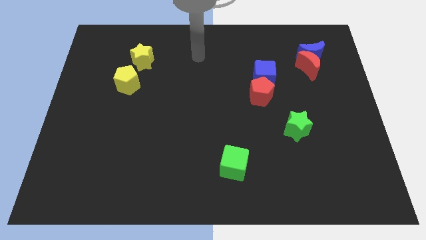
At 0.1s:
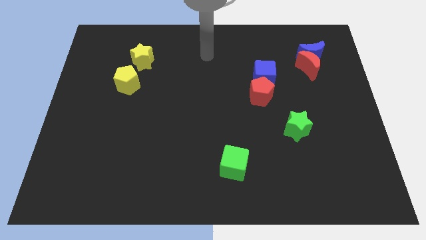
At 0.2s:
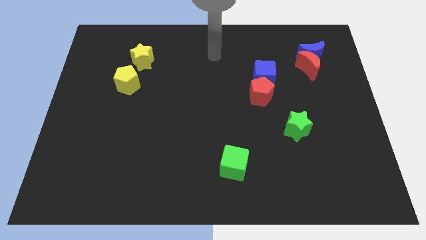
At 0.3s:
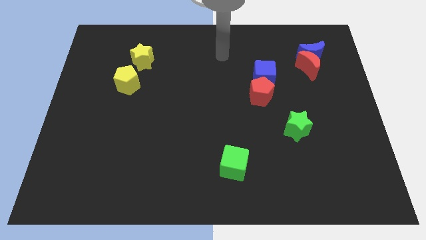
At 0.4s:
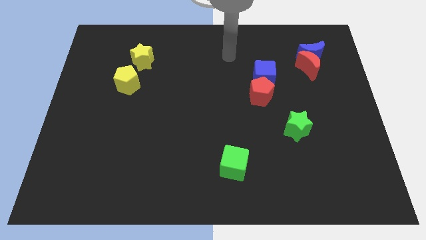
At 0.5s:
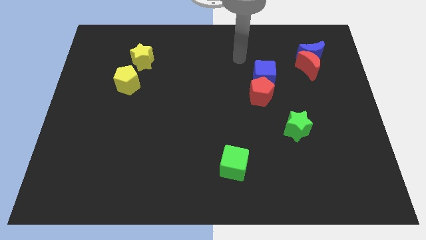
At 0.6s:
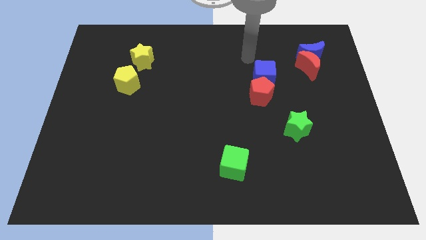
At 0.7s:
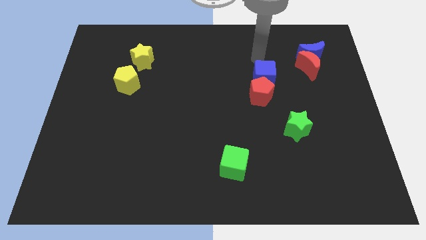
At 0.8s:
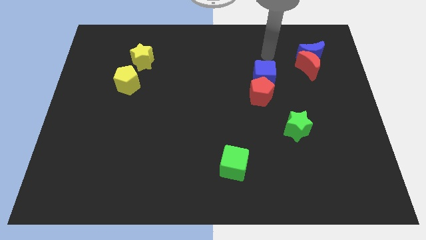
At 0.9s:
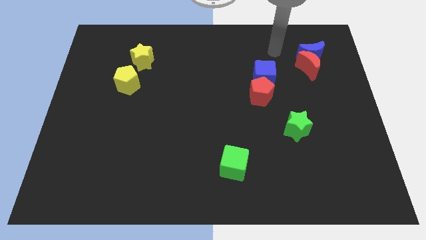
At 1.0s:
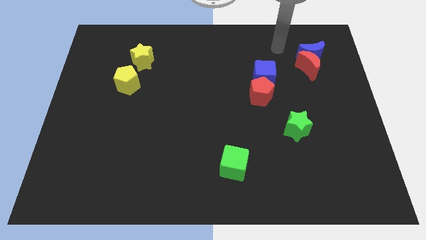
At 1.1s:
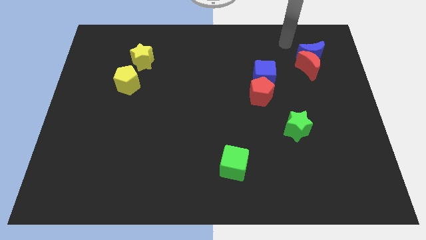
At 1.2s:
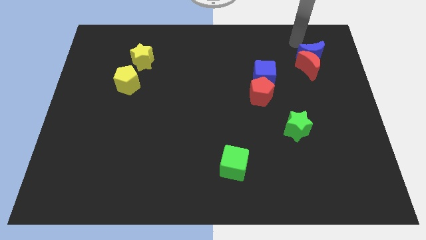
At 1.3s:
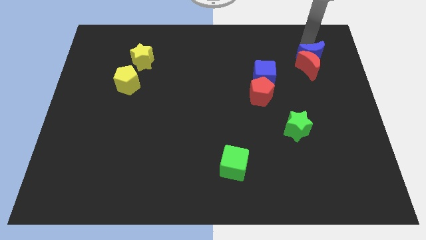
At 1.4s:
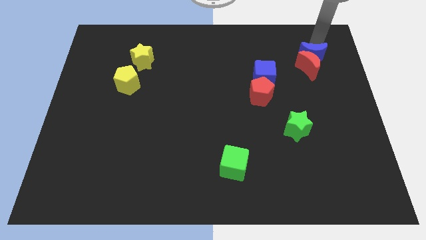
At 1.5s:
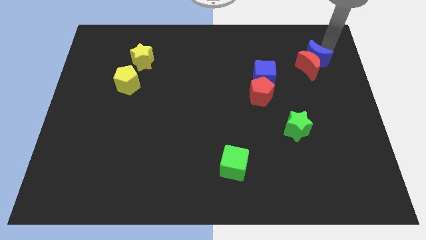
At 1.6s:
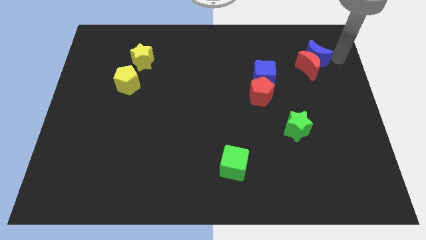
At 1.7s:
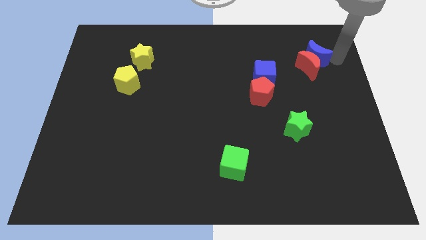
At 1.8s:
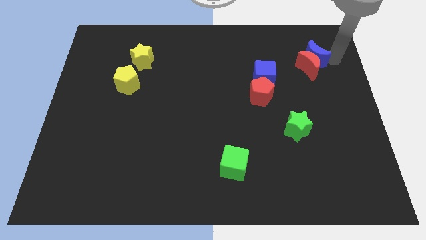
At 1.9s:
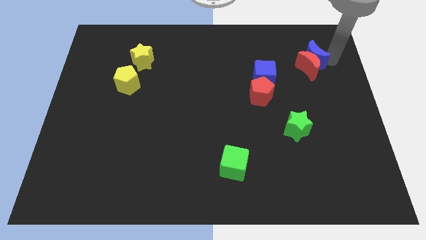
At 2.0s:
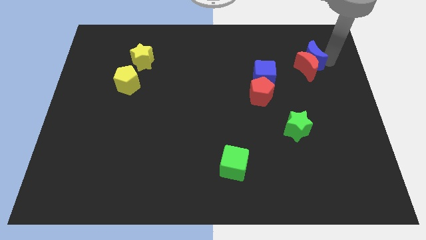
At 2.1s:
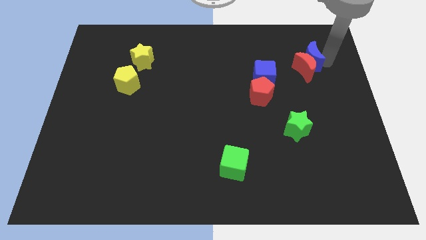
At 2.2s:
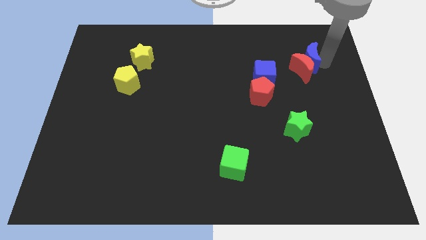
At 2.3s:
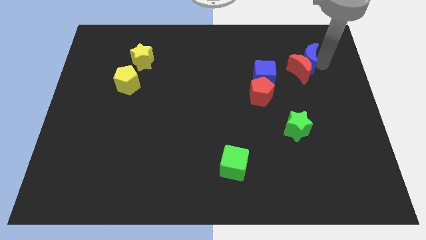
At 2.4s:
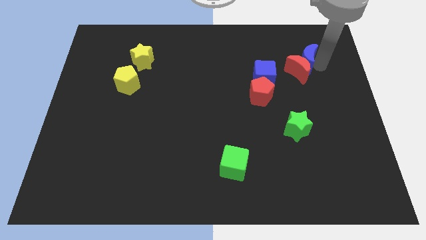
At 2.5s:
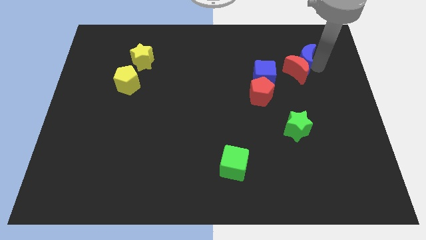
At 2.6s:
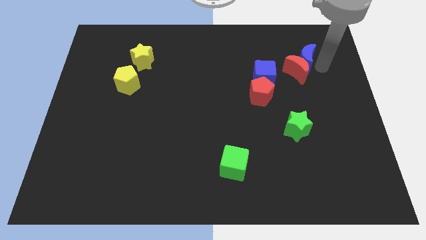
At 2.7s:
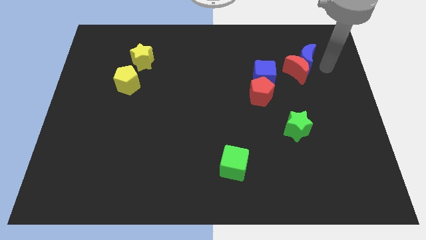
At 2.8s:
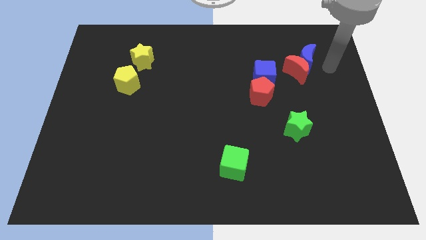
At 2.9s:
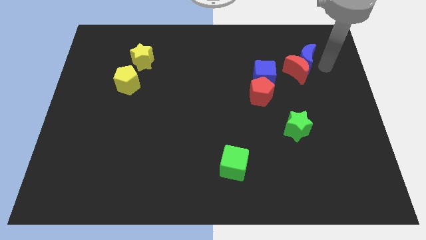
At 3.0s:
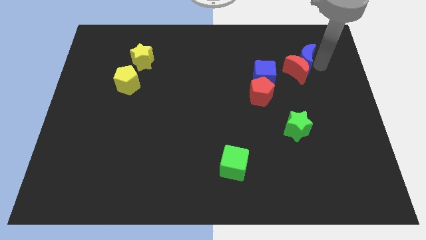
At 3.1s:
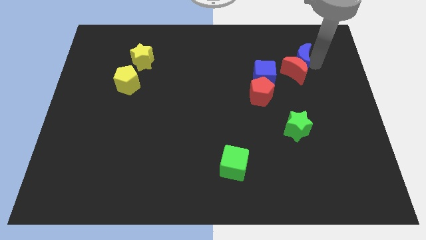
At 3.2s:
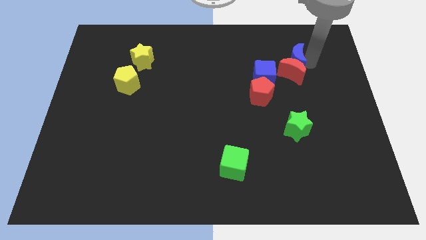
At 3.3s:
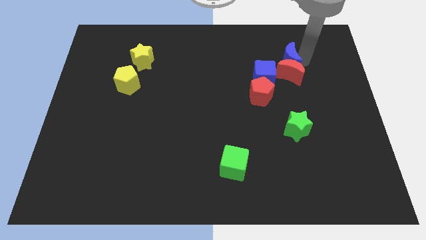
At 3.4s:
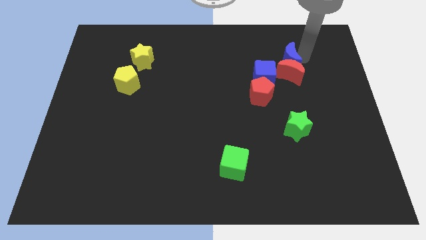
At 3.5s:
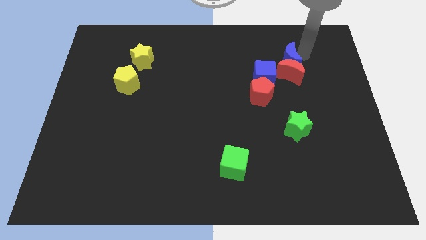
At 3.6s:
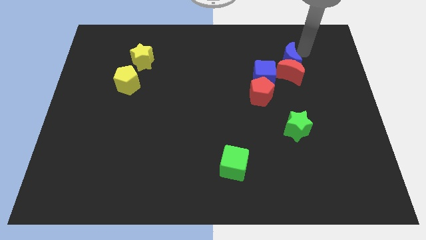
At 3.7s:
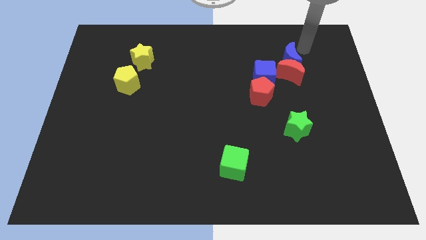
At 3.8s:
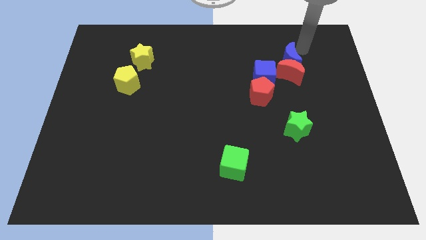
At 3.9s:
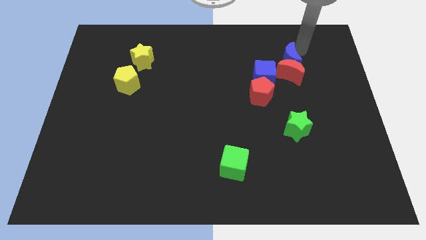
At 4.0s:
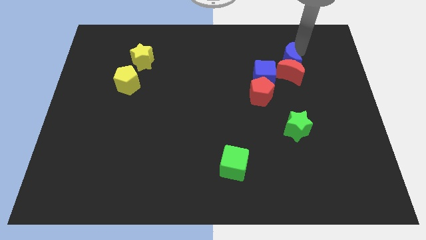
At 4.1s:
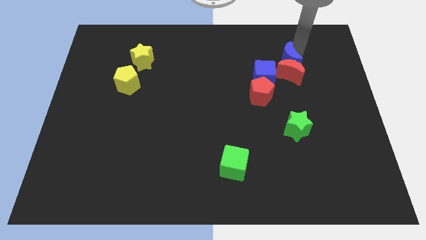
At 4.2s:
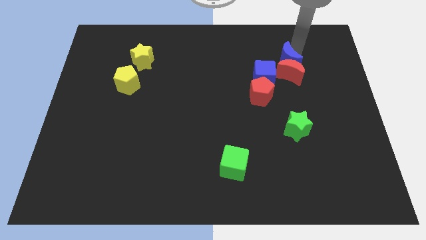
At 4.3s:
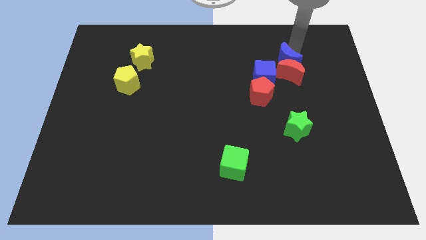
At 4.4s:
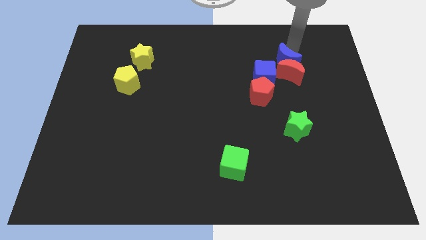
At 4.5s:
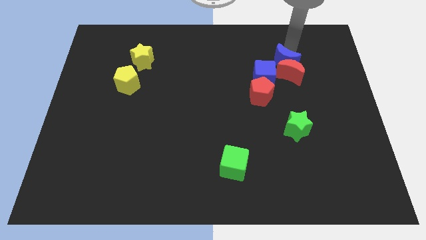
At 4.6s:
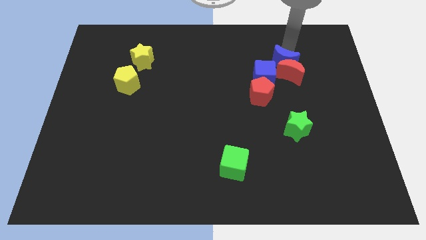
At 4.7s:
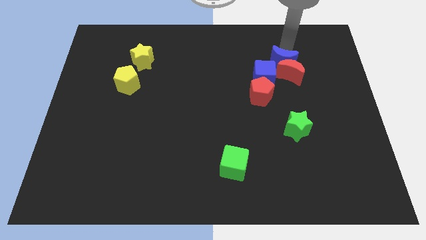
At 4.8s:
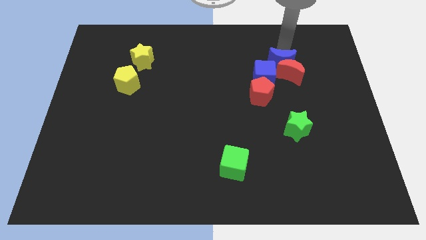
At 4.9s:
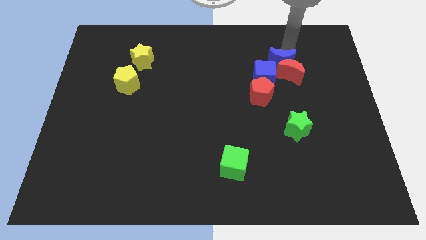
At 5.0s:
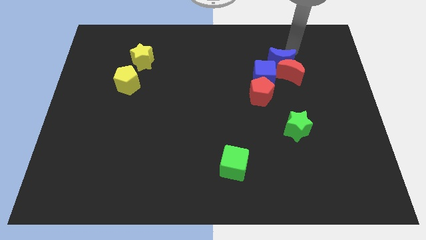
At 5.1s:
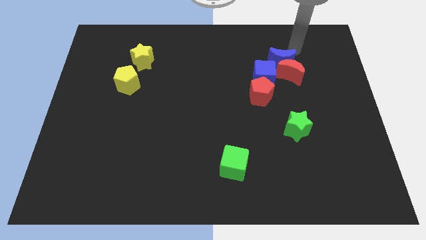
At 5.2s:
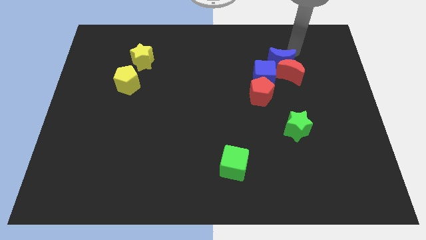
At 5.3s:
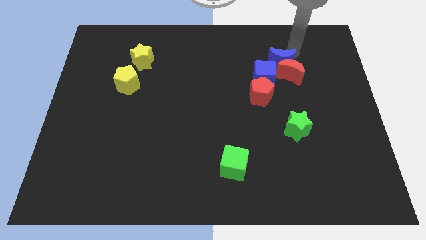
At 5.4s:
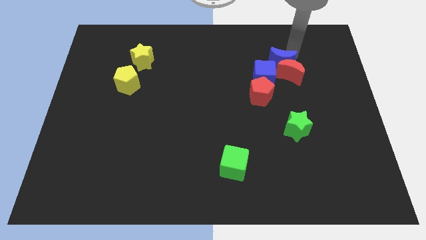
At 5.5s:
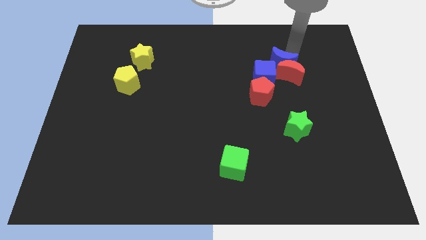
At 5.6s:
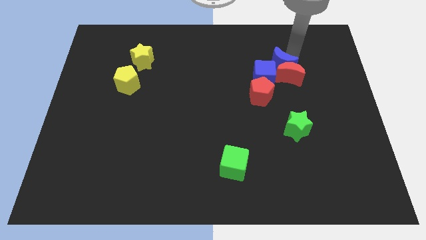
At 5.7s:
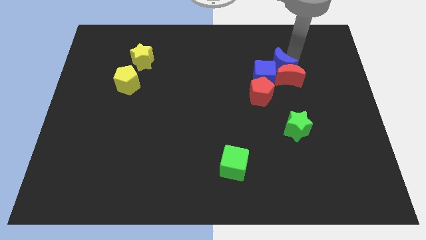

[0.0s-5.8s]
slide the blue moon towards the blue cube
